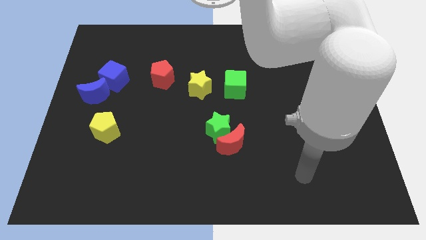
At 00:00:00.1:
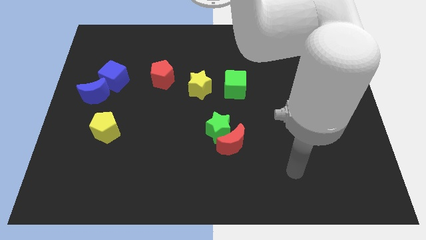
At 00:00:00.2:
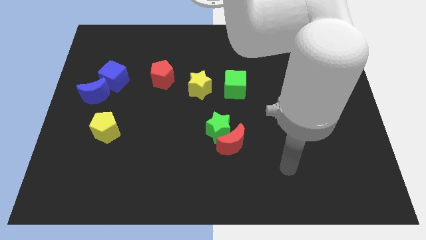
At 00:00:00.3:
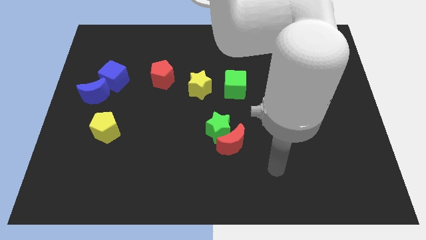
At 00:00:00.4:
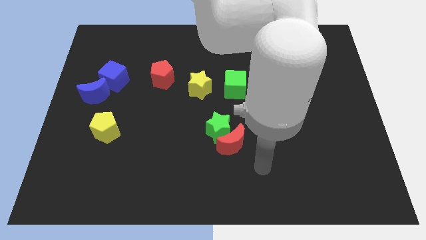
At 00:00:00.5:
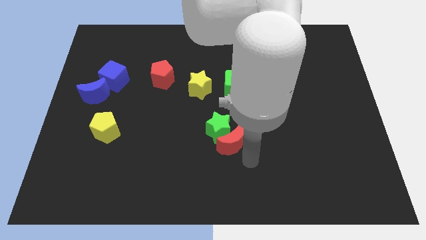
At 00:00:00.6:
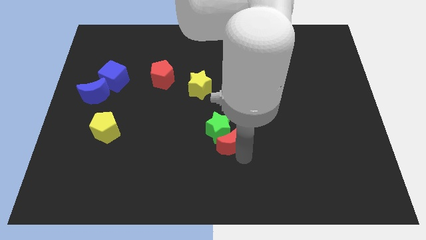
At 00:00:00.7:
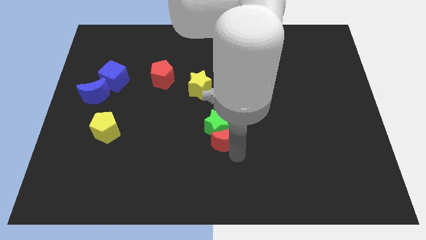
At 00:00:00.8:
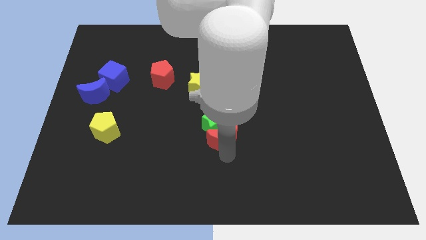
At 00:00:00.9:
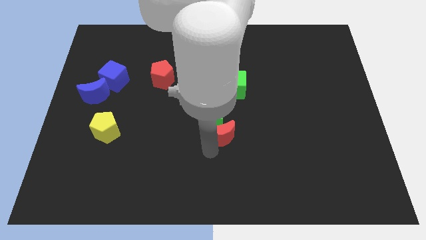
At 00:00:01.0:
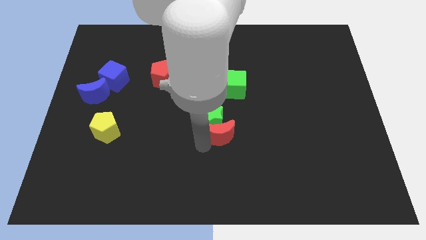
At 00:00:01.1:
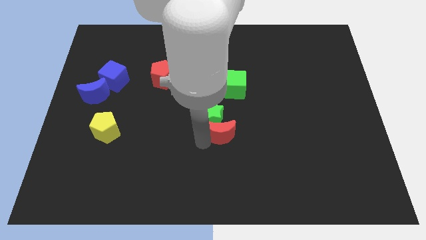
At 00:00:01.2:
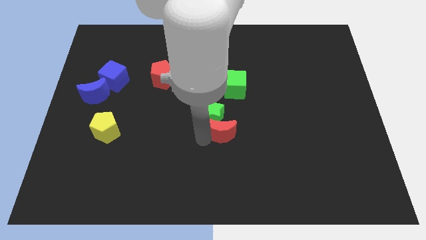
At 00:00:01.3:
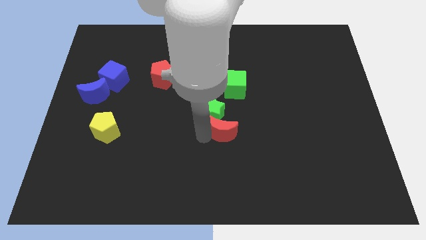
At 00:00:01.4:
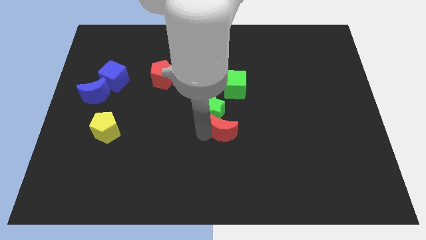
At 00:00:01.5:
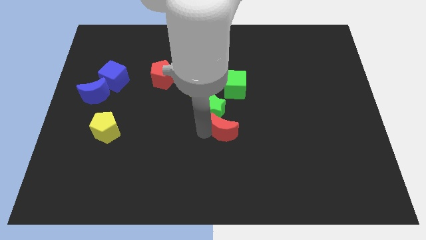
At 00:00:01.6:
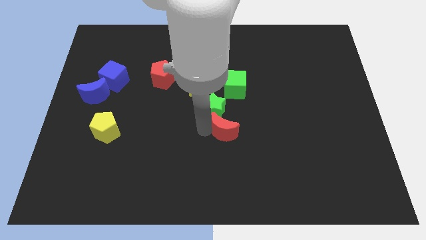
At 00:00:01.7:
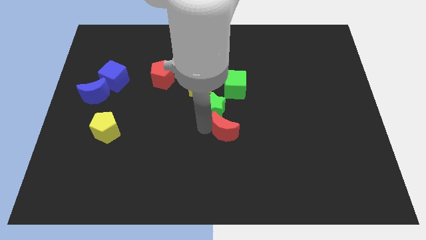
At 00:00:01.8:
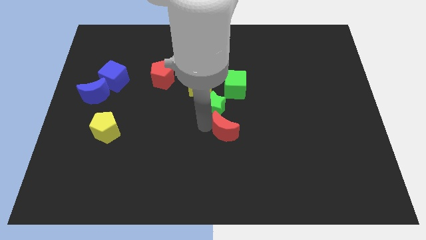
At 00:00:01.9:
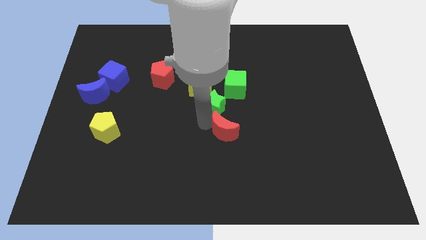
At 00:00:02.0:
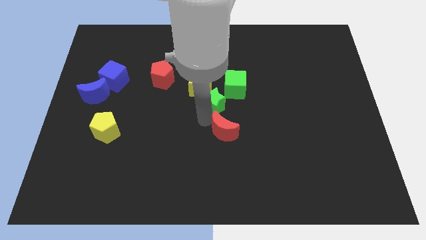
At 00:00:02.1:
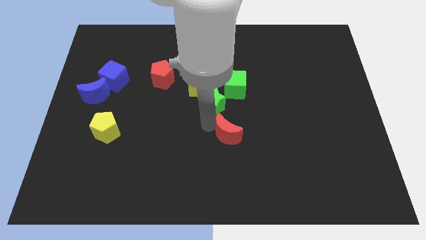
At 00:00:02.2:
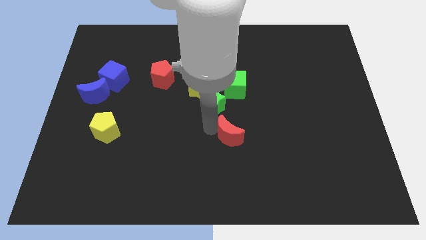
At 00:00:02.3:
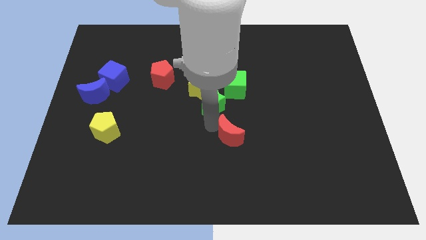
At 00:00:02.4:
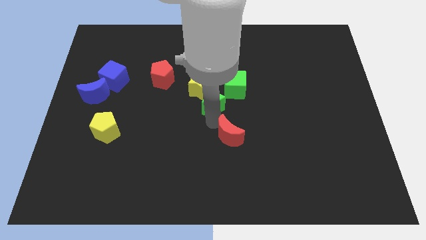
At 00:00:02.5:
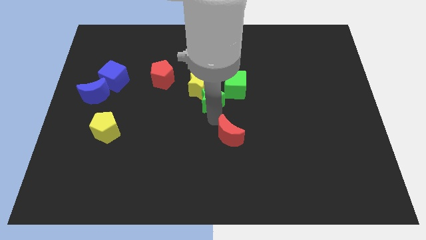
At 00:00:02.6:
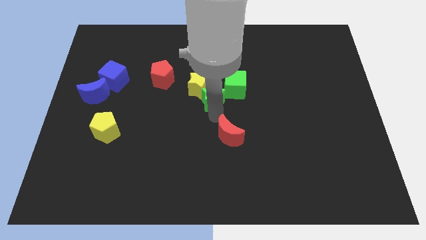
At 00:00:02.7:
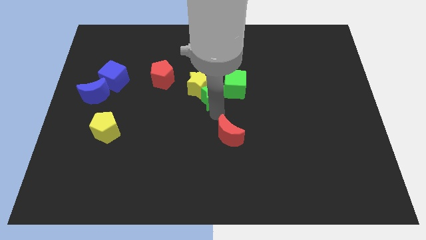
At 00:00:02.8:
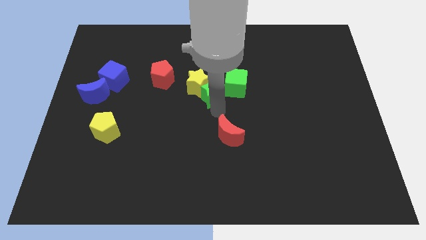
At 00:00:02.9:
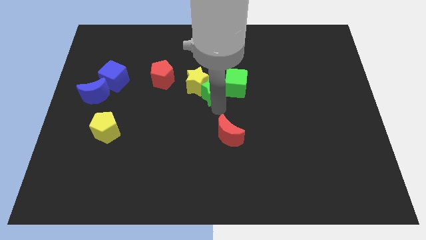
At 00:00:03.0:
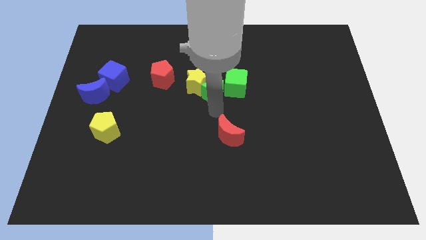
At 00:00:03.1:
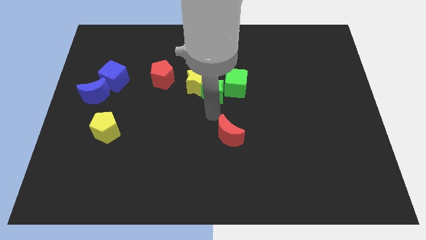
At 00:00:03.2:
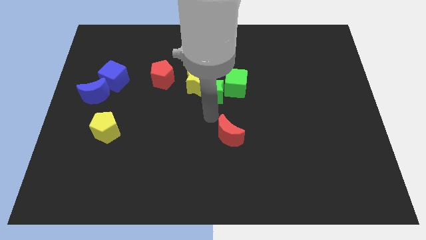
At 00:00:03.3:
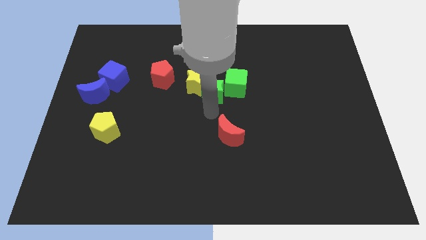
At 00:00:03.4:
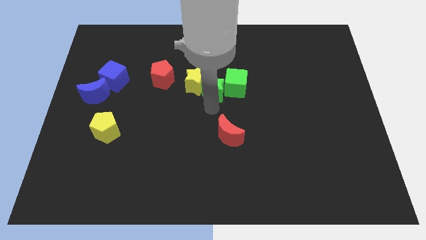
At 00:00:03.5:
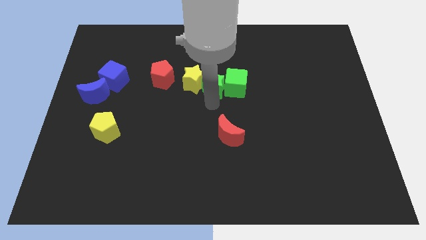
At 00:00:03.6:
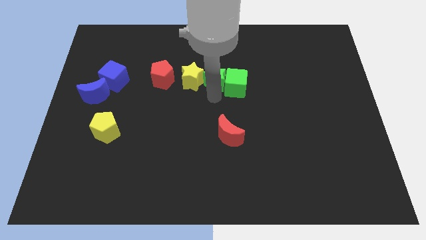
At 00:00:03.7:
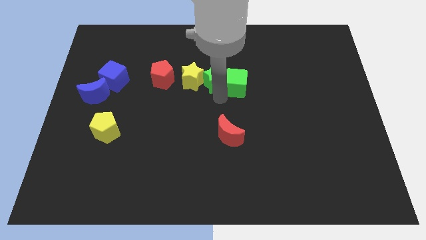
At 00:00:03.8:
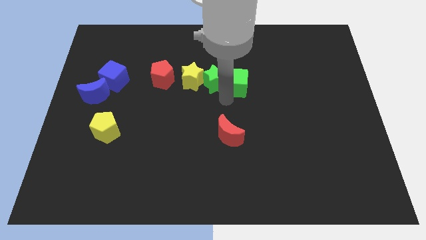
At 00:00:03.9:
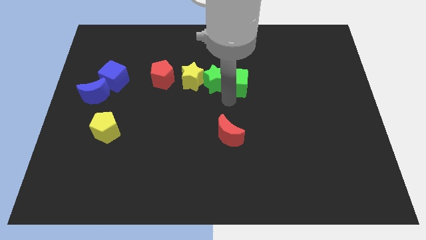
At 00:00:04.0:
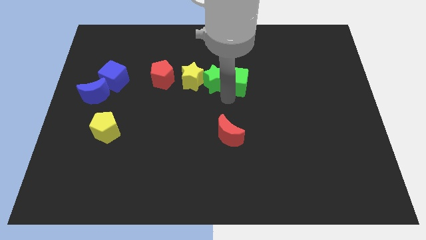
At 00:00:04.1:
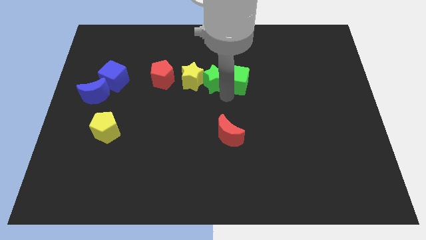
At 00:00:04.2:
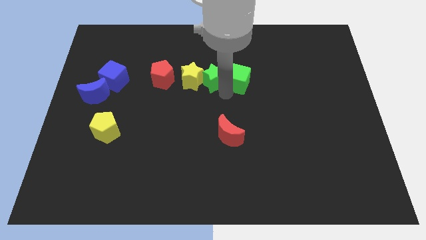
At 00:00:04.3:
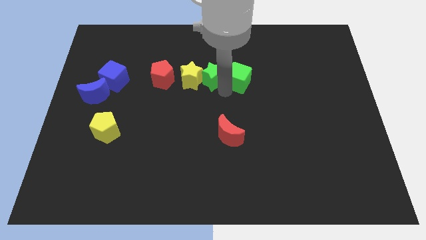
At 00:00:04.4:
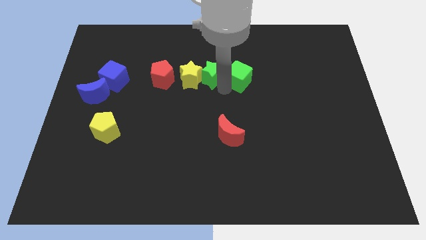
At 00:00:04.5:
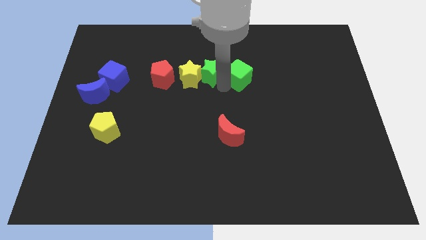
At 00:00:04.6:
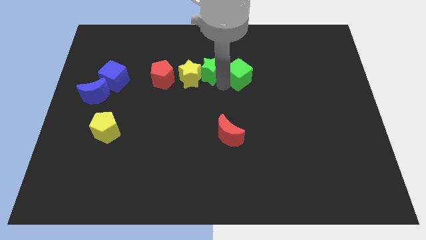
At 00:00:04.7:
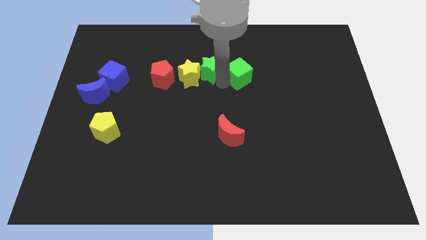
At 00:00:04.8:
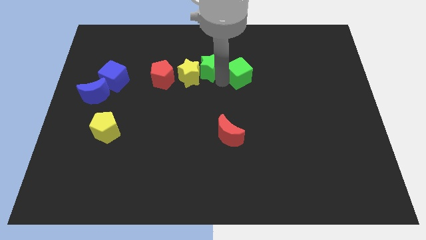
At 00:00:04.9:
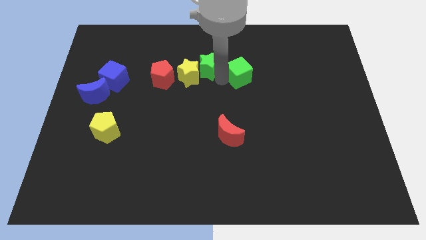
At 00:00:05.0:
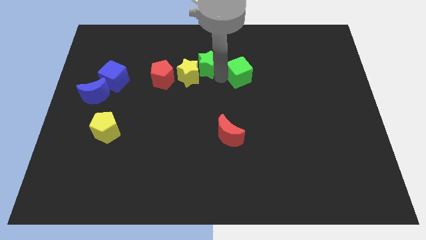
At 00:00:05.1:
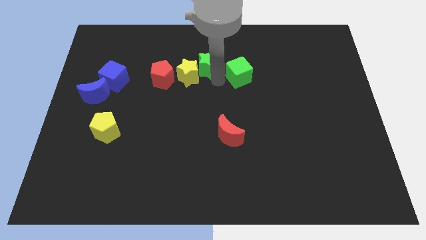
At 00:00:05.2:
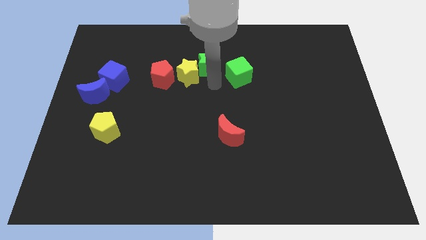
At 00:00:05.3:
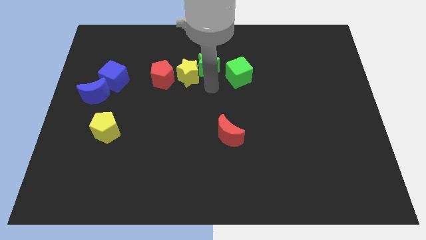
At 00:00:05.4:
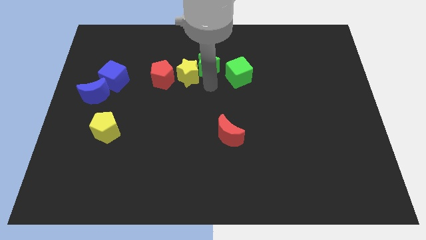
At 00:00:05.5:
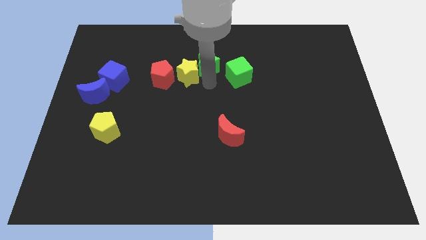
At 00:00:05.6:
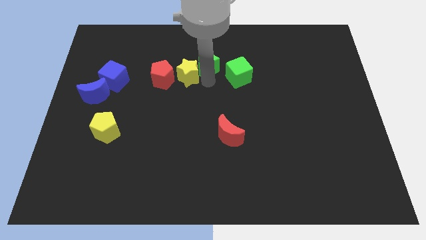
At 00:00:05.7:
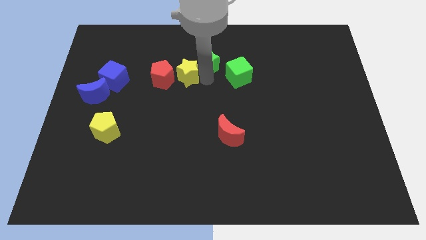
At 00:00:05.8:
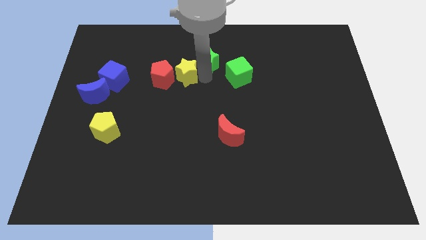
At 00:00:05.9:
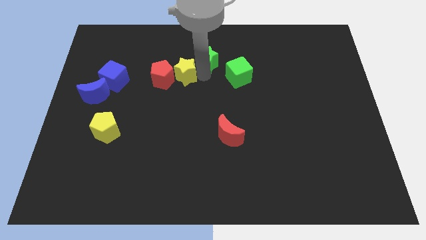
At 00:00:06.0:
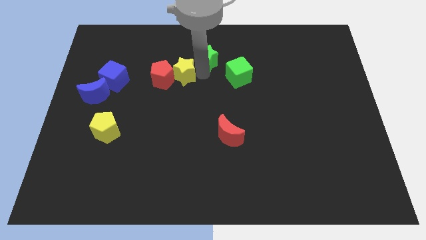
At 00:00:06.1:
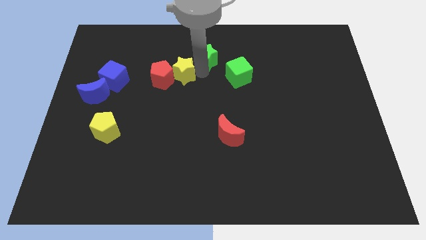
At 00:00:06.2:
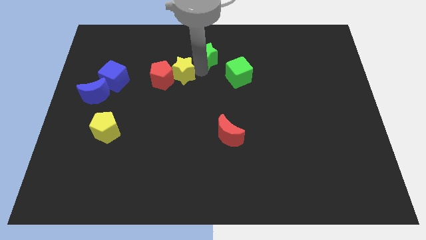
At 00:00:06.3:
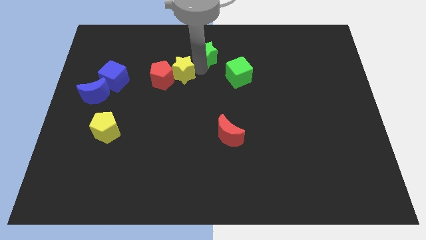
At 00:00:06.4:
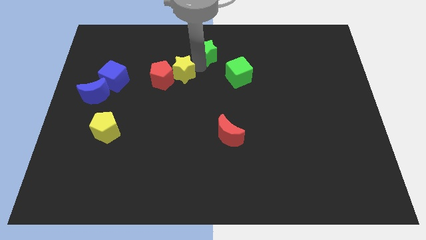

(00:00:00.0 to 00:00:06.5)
push the green star to the towards your base

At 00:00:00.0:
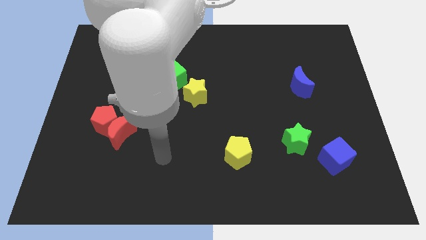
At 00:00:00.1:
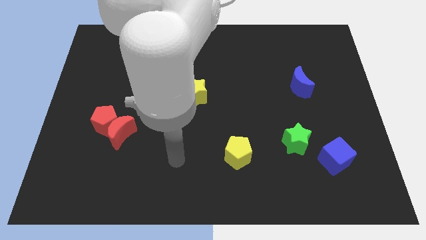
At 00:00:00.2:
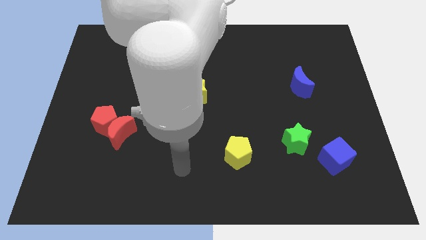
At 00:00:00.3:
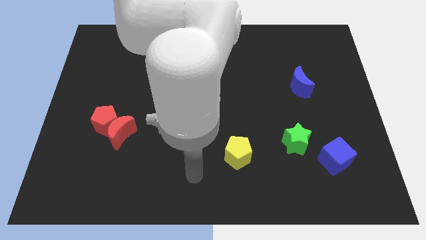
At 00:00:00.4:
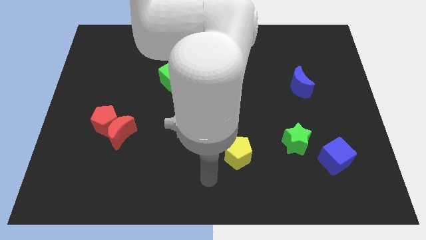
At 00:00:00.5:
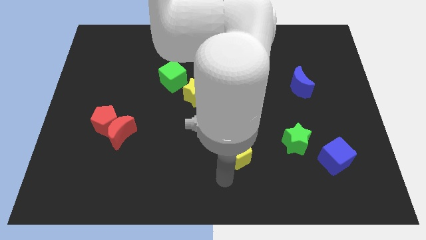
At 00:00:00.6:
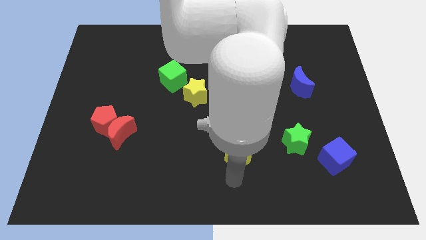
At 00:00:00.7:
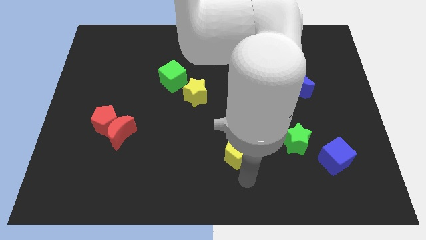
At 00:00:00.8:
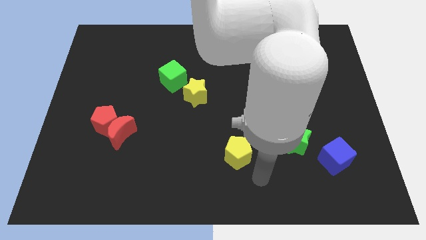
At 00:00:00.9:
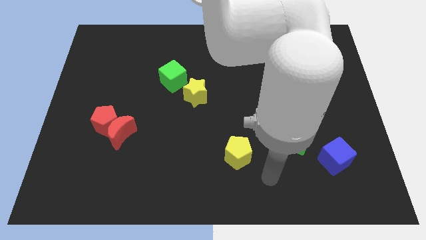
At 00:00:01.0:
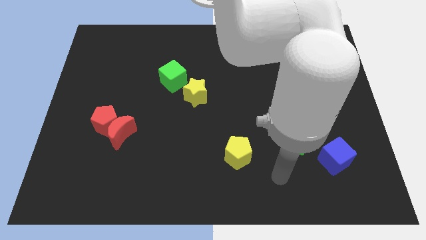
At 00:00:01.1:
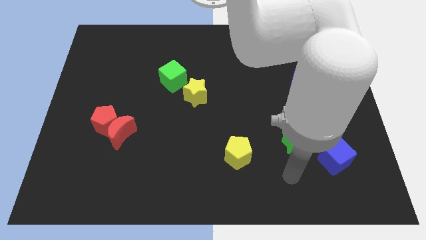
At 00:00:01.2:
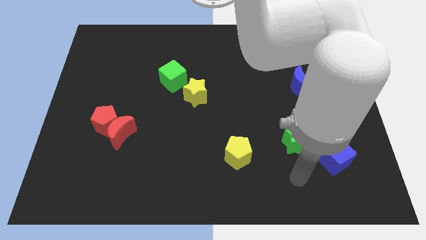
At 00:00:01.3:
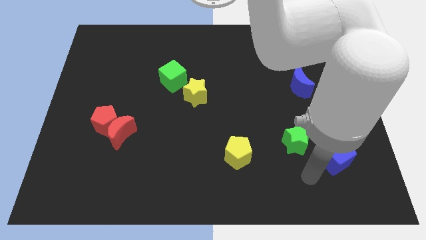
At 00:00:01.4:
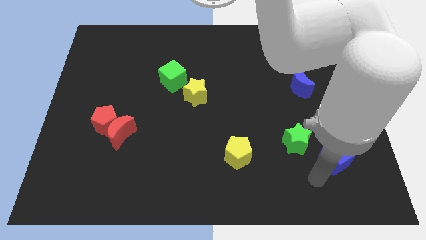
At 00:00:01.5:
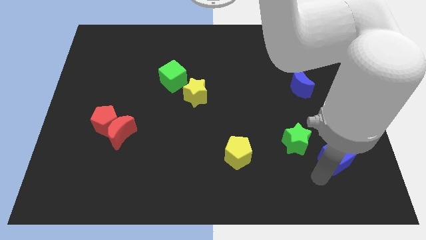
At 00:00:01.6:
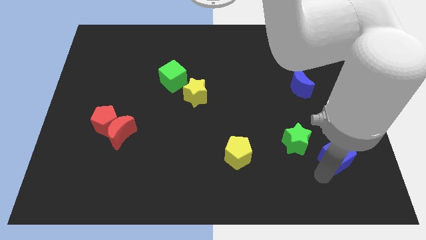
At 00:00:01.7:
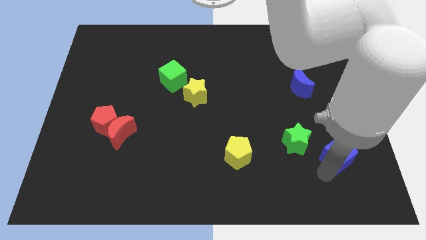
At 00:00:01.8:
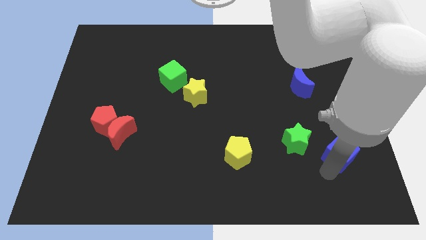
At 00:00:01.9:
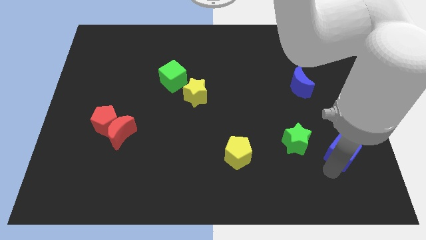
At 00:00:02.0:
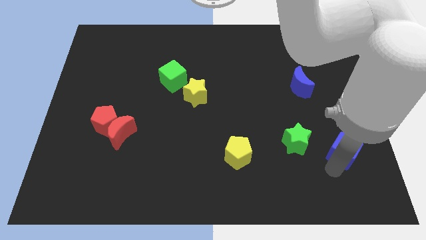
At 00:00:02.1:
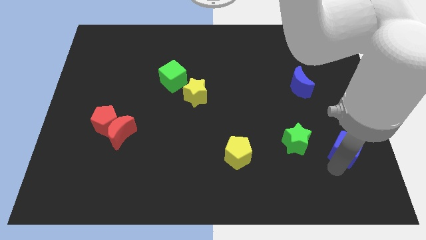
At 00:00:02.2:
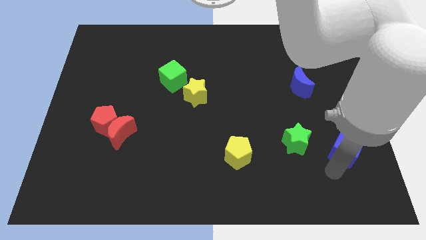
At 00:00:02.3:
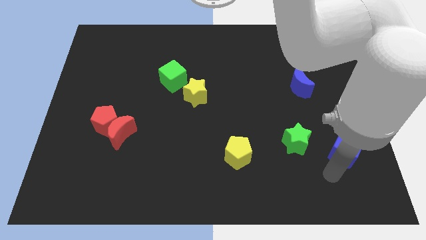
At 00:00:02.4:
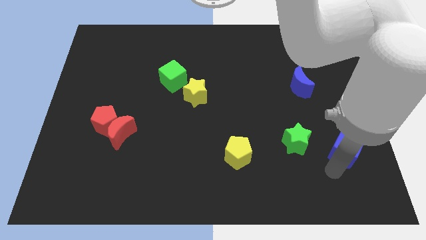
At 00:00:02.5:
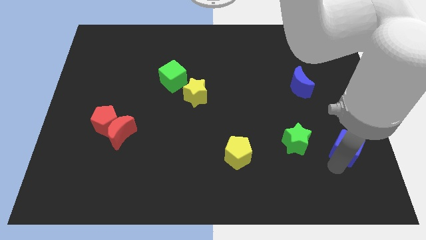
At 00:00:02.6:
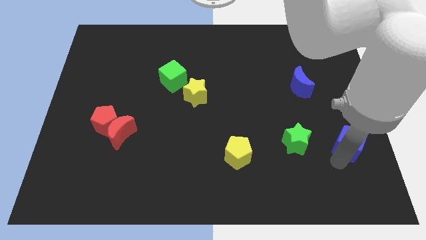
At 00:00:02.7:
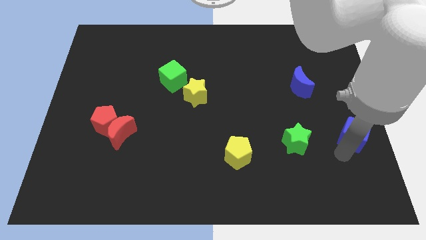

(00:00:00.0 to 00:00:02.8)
move the blue cube to the center right
